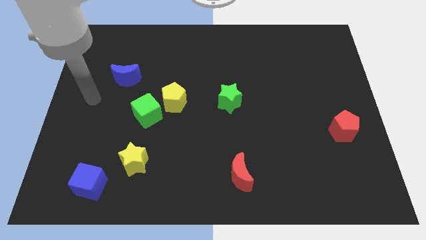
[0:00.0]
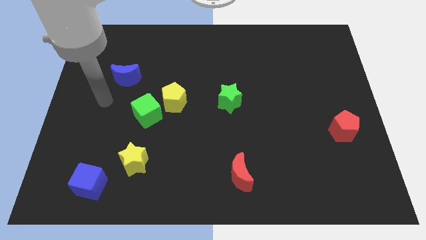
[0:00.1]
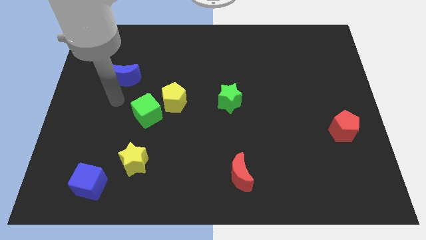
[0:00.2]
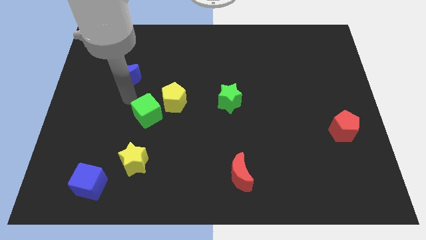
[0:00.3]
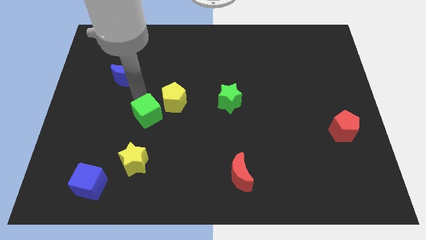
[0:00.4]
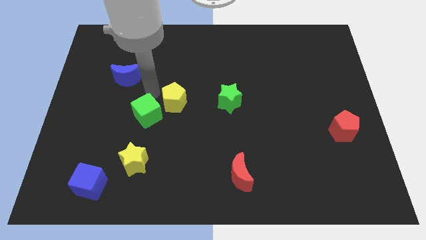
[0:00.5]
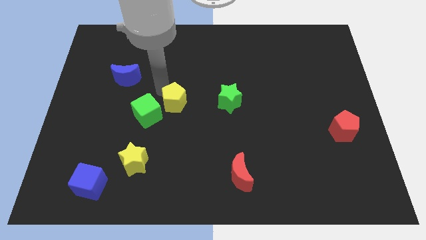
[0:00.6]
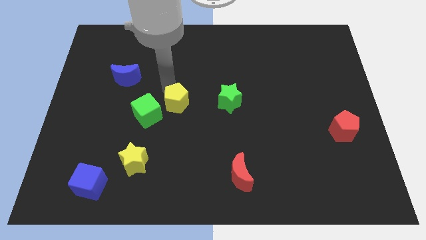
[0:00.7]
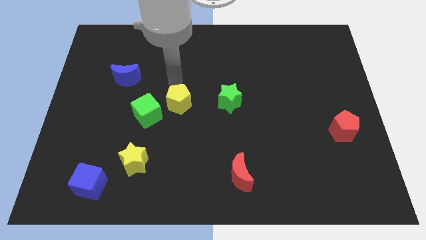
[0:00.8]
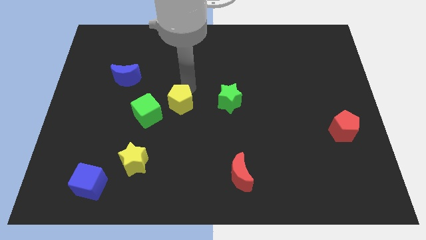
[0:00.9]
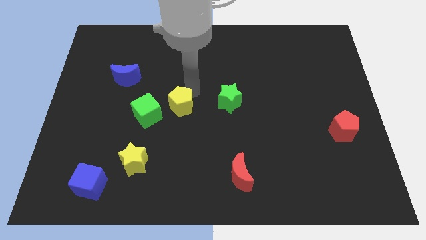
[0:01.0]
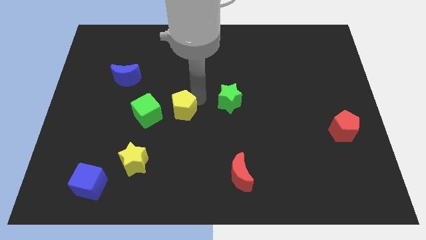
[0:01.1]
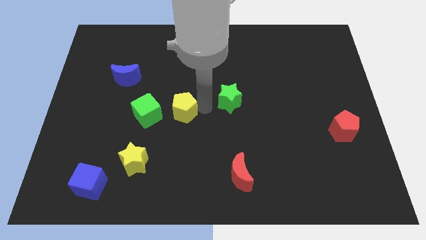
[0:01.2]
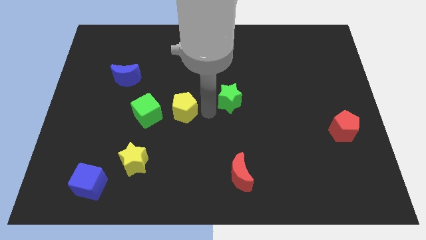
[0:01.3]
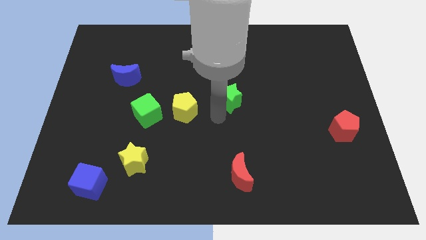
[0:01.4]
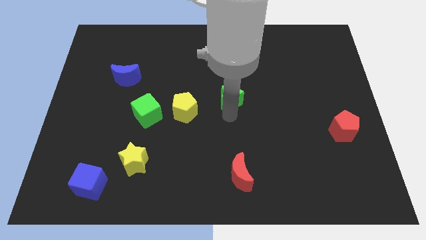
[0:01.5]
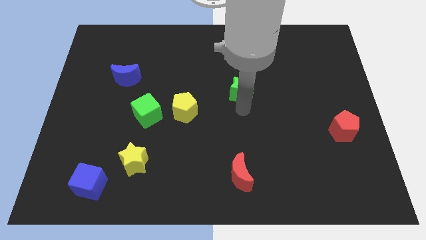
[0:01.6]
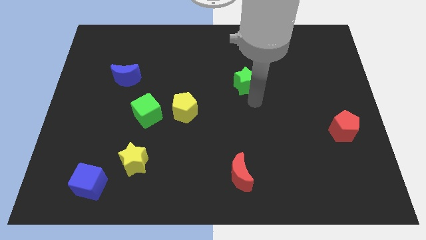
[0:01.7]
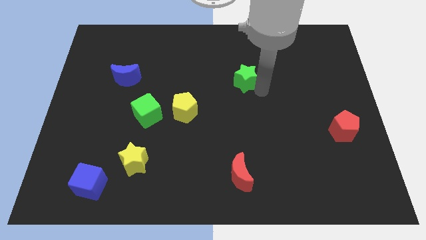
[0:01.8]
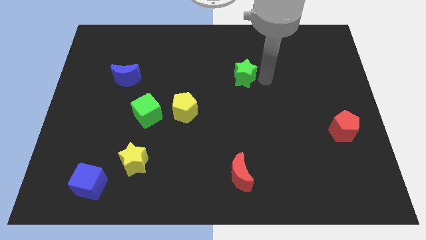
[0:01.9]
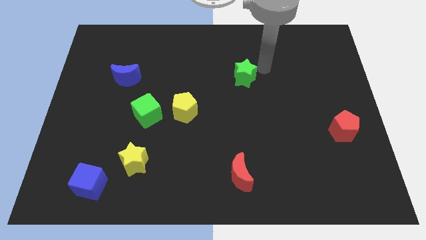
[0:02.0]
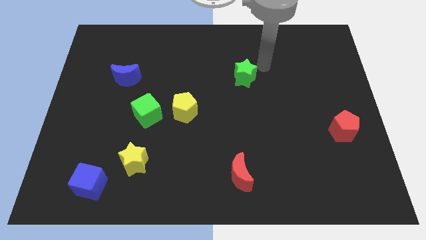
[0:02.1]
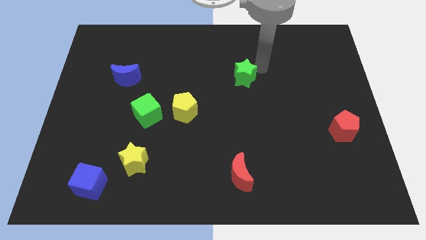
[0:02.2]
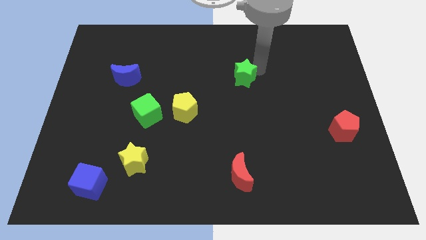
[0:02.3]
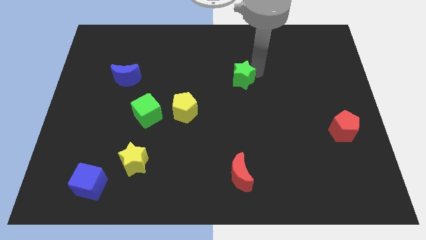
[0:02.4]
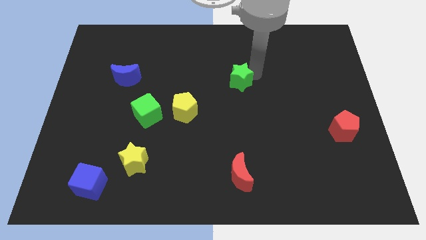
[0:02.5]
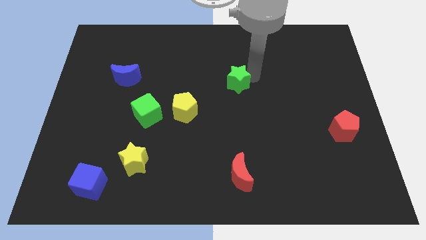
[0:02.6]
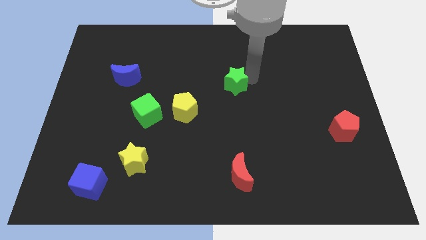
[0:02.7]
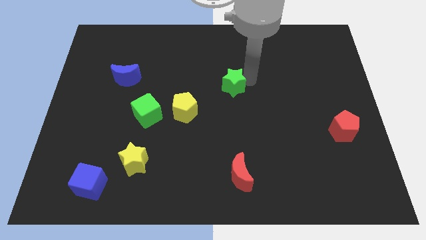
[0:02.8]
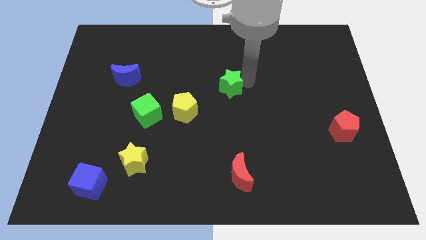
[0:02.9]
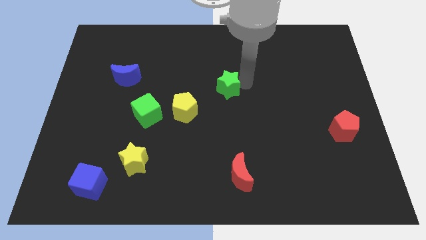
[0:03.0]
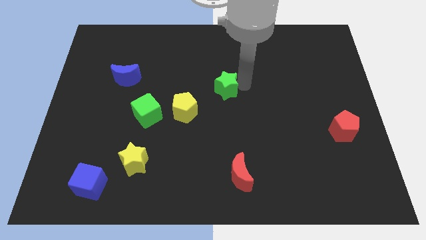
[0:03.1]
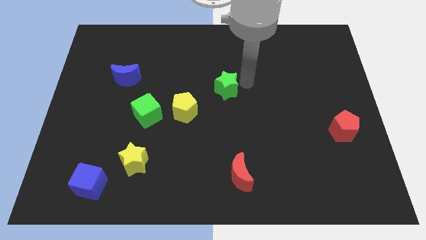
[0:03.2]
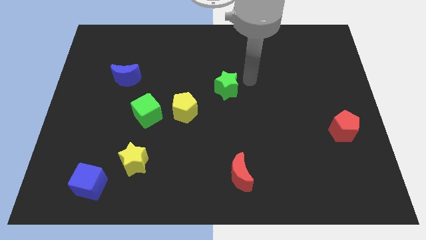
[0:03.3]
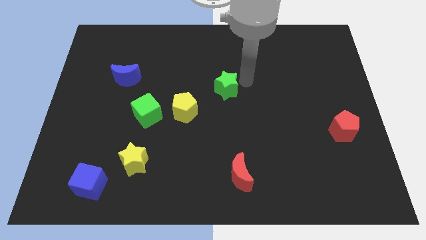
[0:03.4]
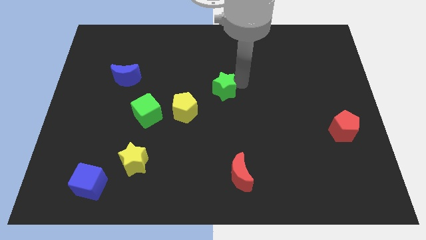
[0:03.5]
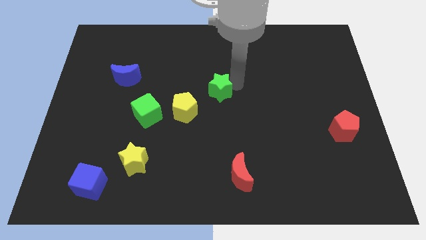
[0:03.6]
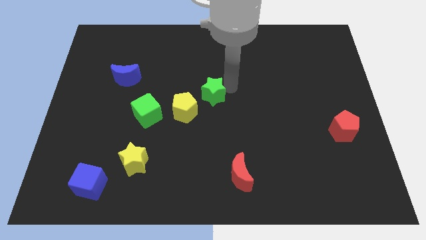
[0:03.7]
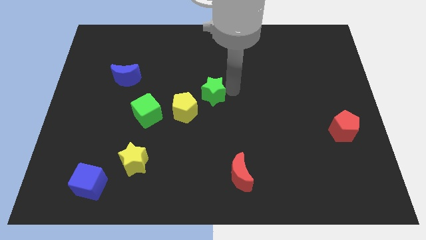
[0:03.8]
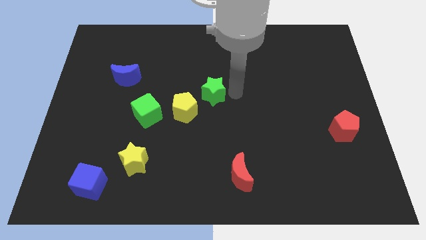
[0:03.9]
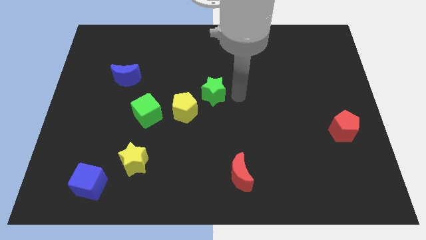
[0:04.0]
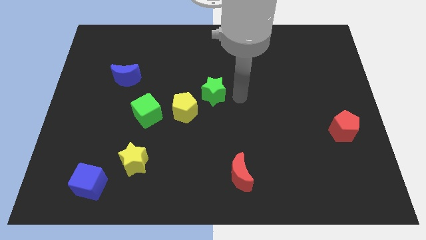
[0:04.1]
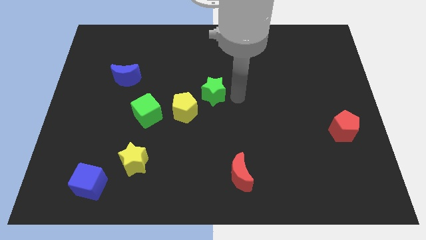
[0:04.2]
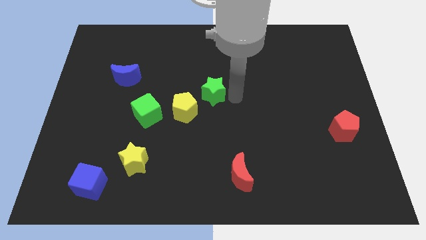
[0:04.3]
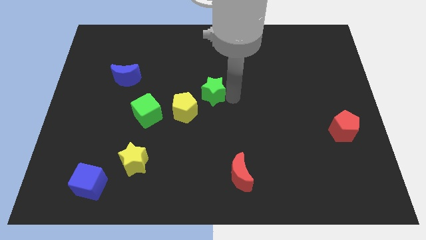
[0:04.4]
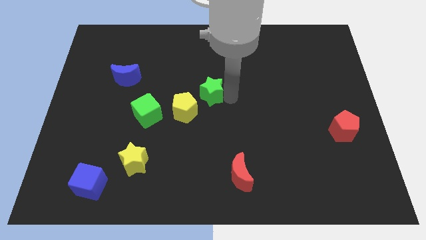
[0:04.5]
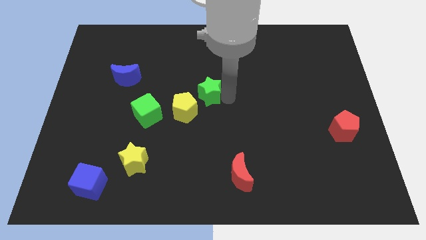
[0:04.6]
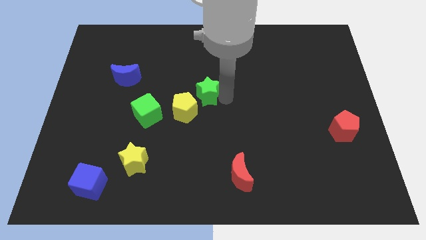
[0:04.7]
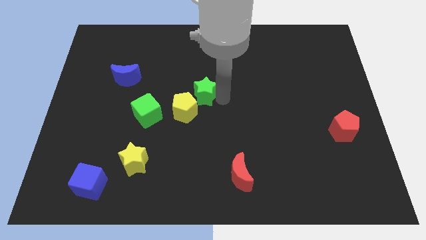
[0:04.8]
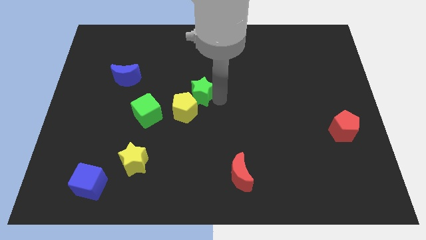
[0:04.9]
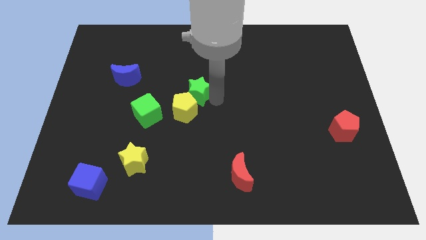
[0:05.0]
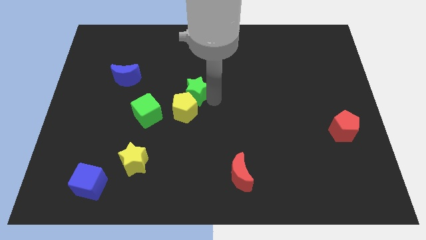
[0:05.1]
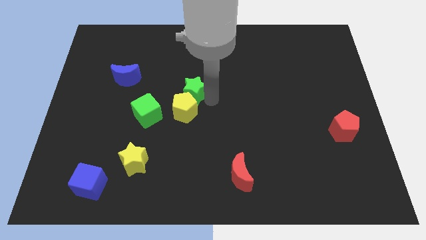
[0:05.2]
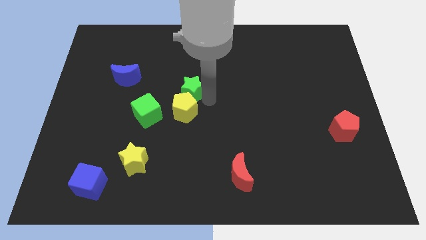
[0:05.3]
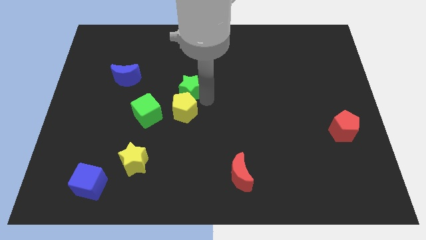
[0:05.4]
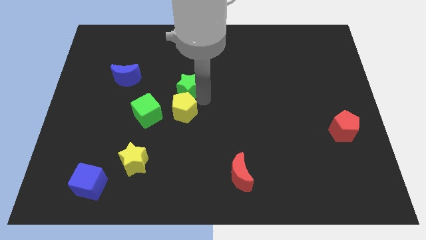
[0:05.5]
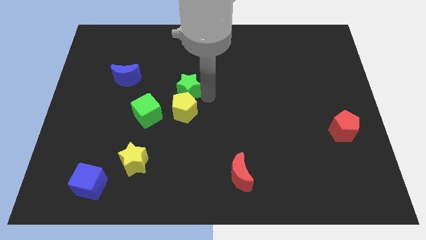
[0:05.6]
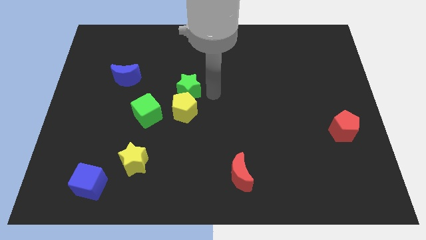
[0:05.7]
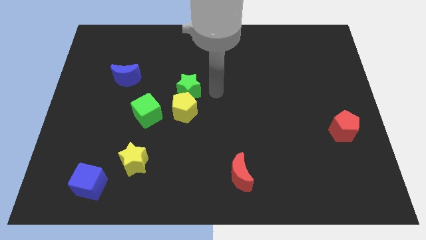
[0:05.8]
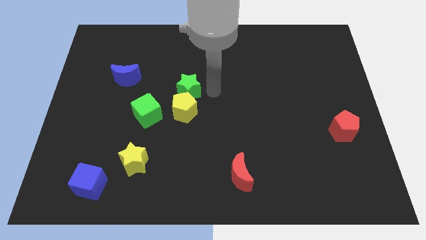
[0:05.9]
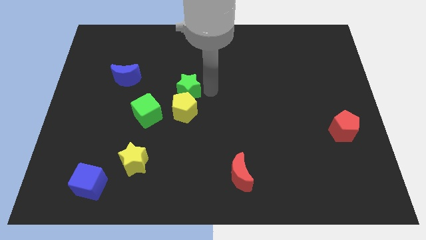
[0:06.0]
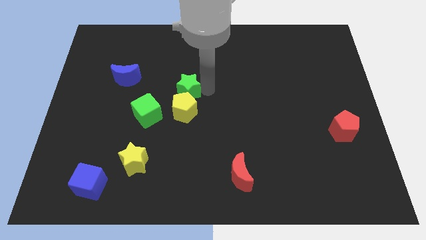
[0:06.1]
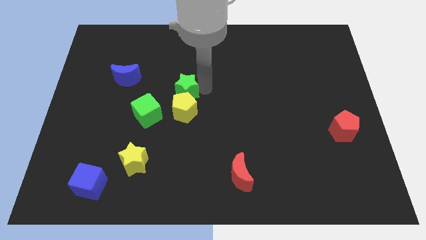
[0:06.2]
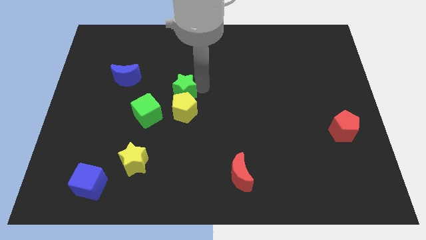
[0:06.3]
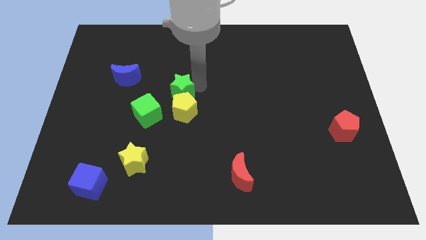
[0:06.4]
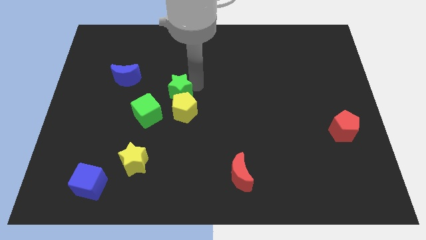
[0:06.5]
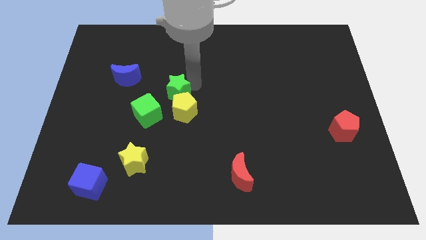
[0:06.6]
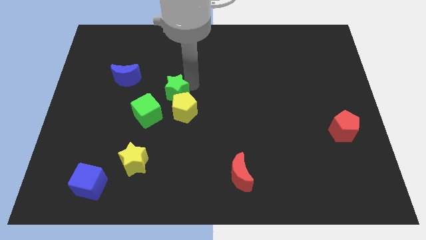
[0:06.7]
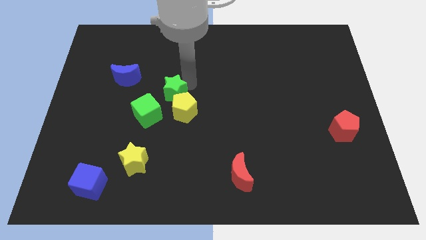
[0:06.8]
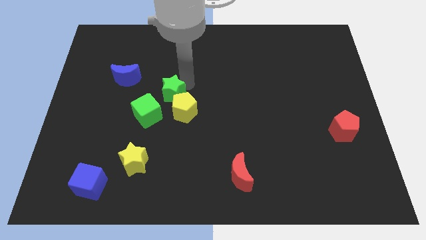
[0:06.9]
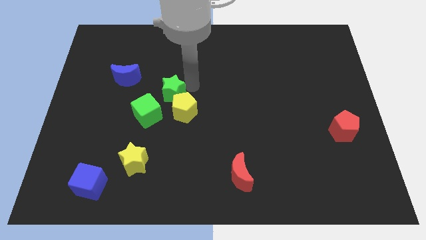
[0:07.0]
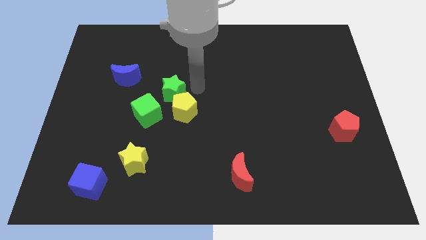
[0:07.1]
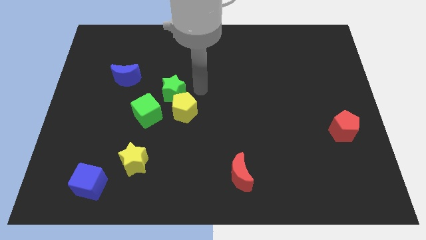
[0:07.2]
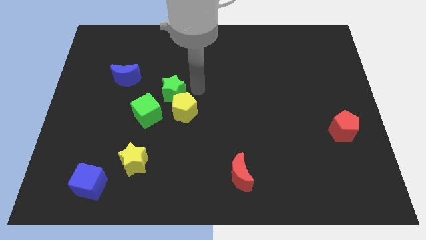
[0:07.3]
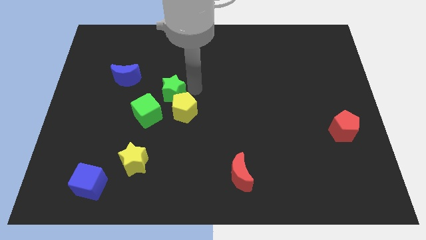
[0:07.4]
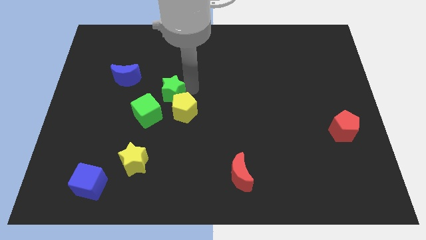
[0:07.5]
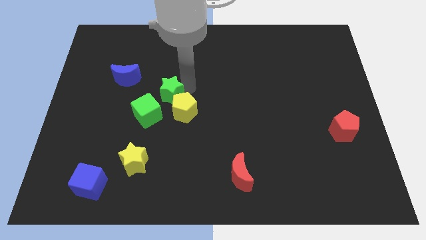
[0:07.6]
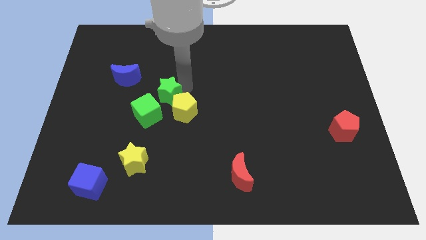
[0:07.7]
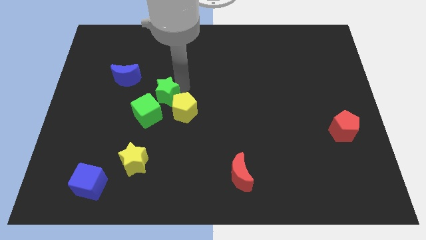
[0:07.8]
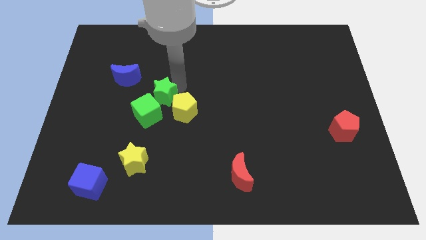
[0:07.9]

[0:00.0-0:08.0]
slide the green star diagonally down and to the right of the blue moon
